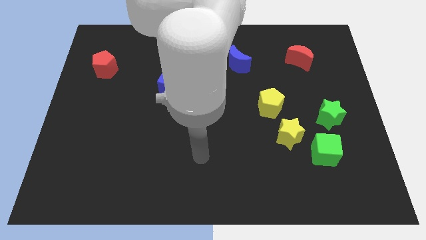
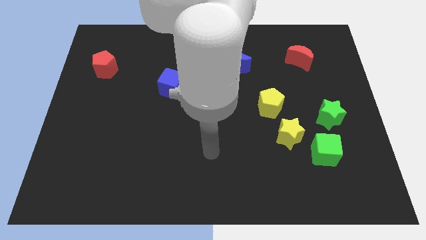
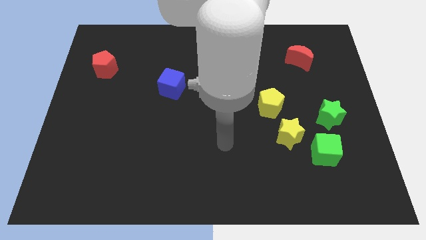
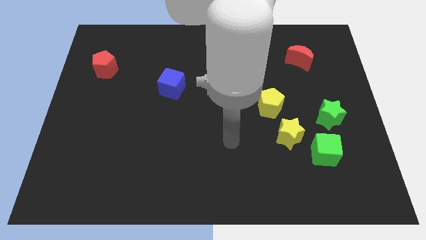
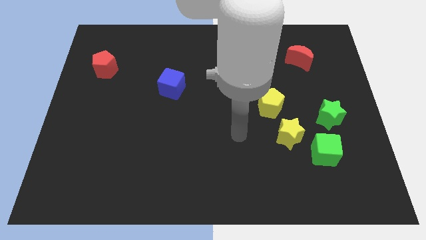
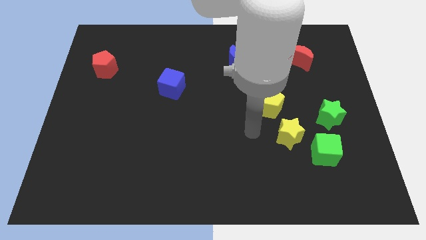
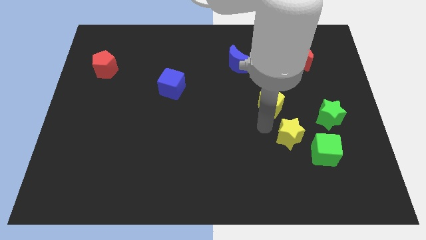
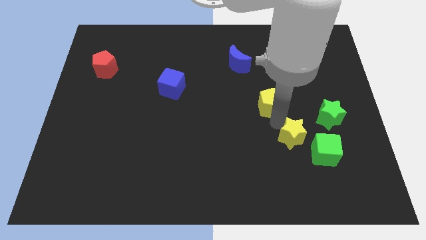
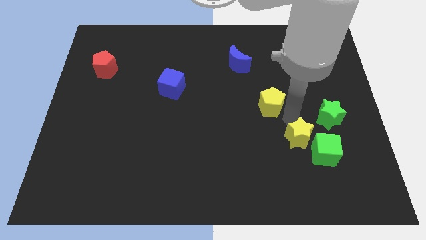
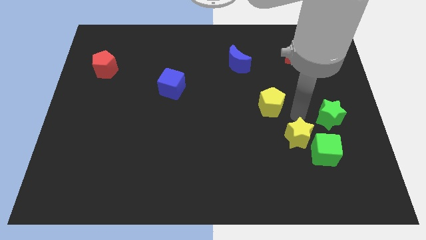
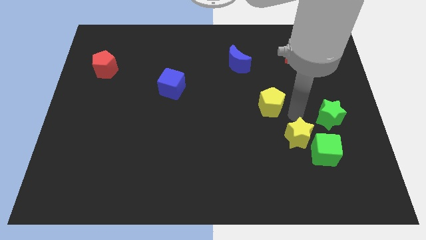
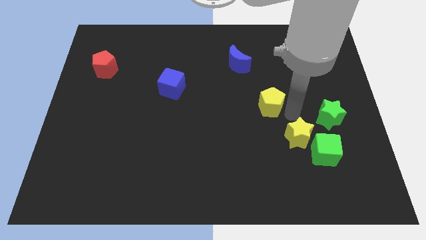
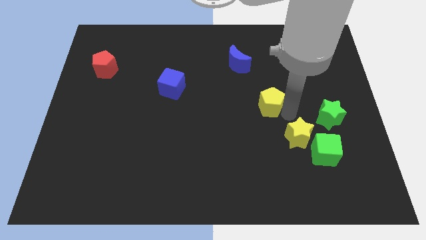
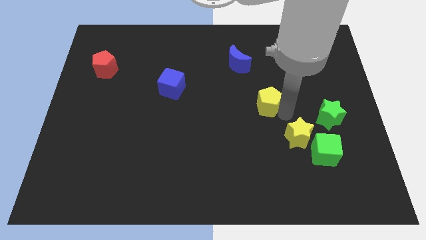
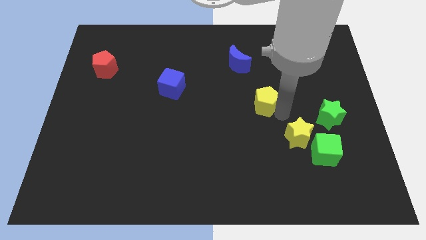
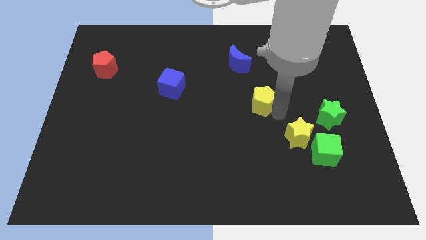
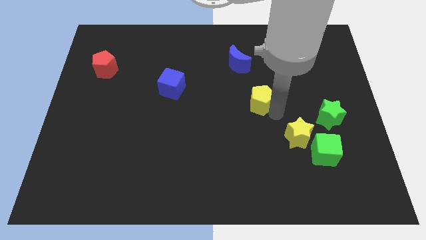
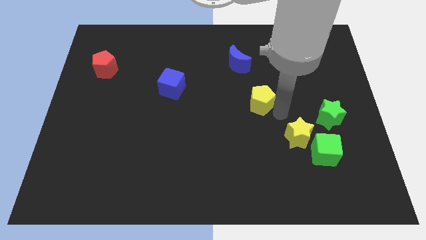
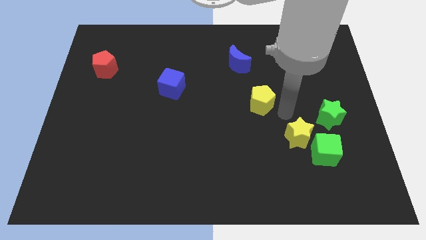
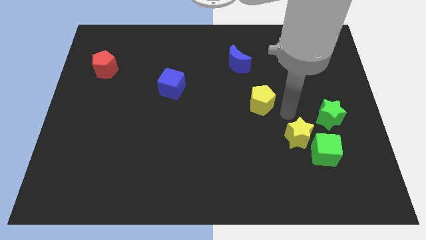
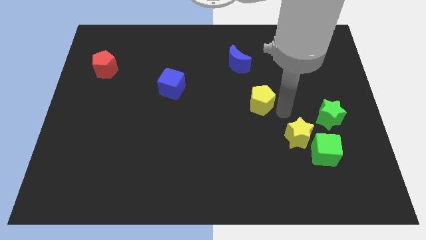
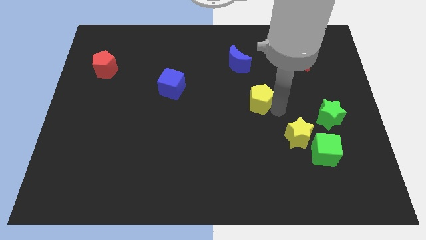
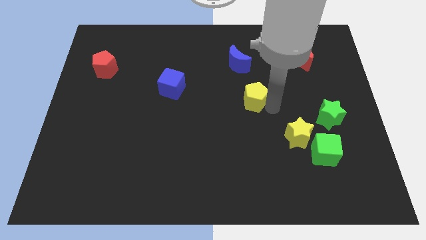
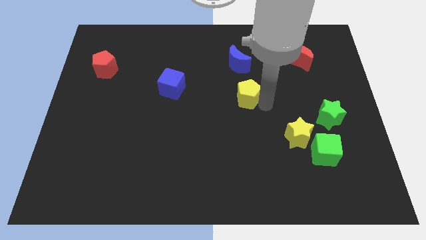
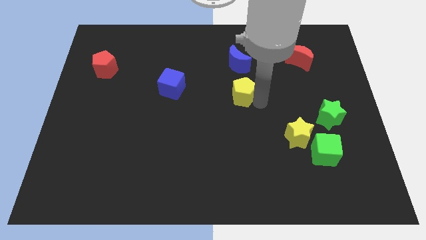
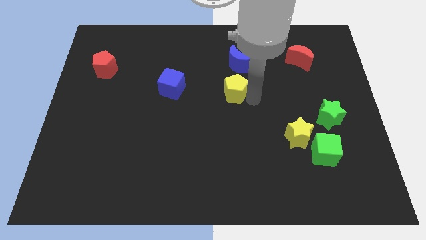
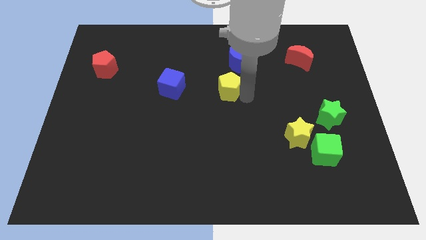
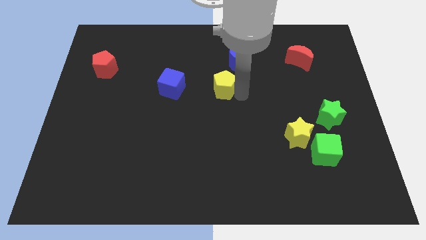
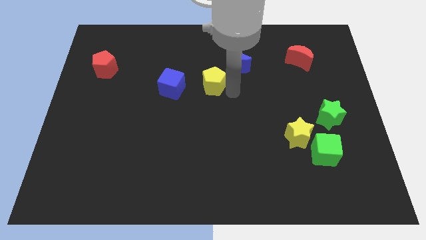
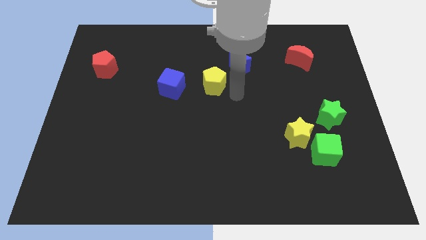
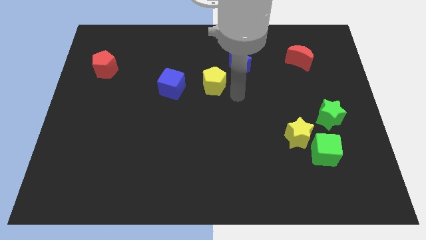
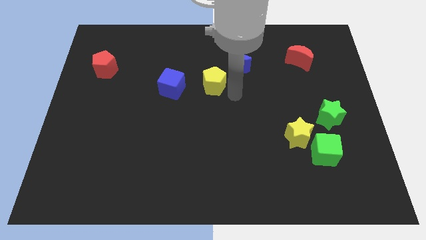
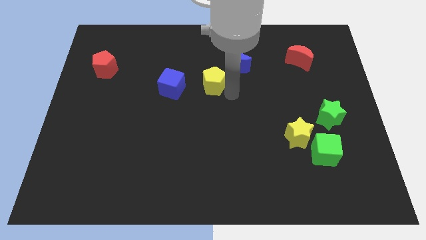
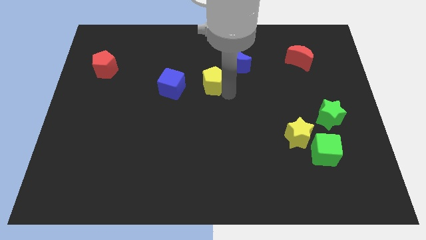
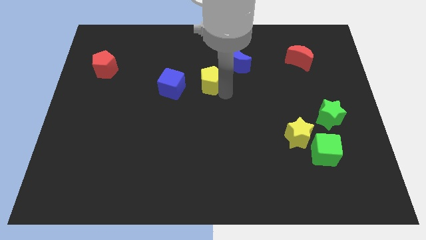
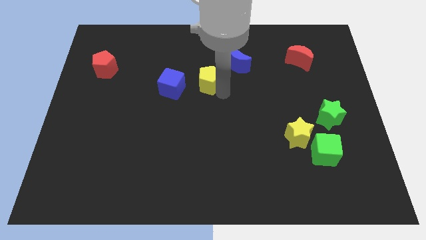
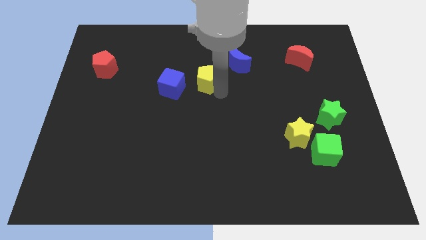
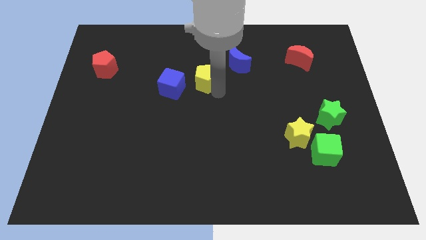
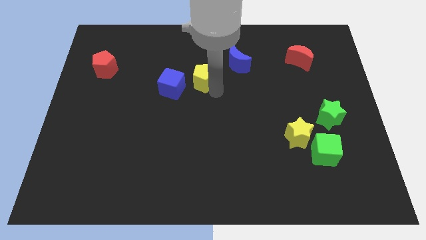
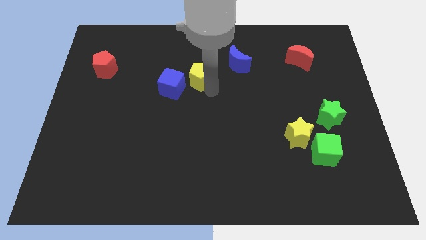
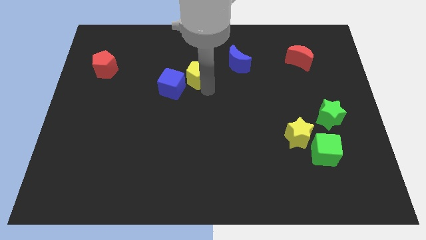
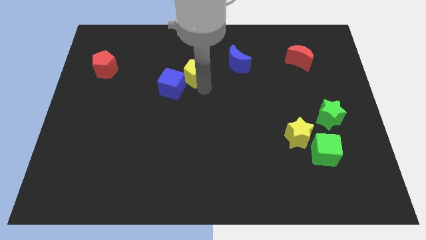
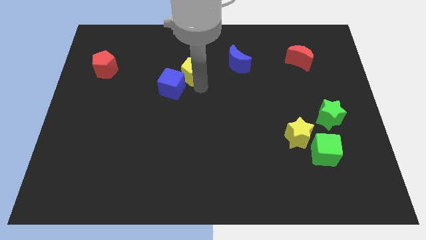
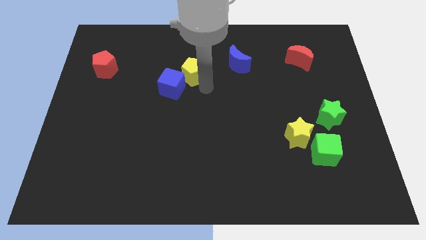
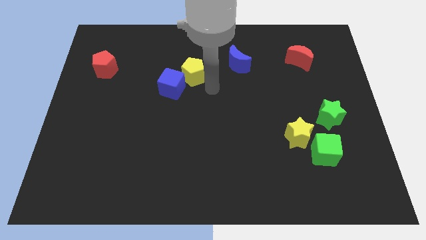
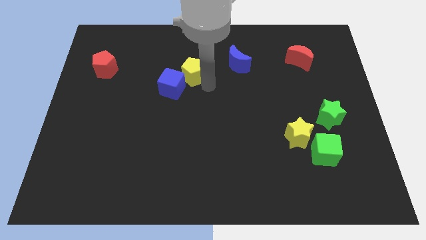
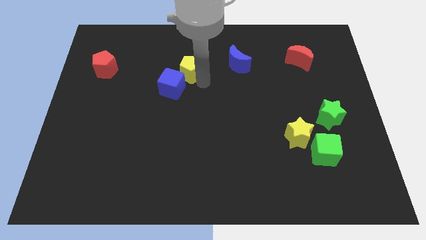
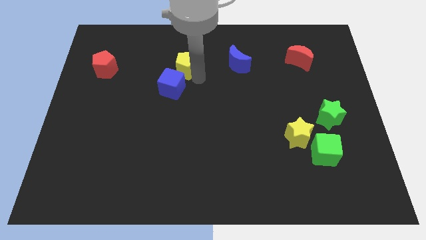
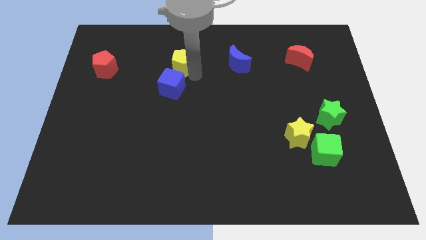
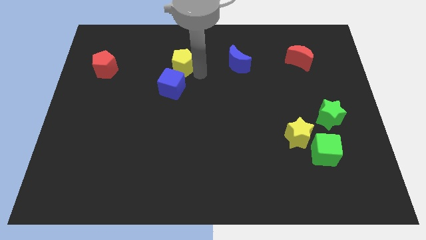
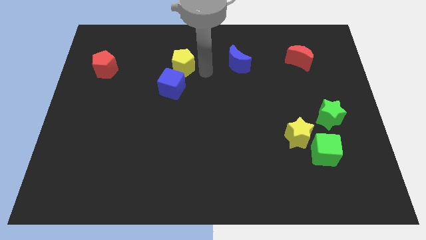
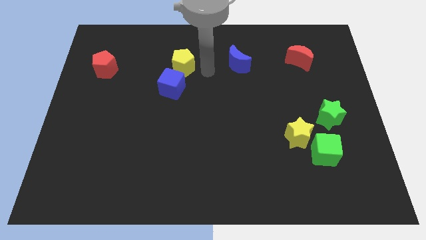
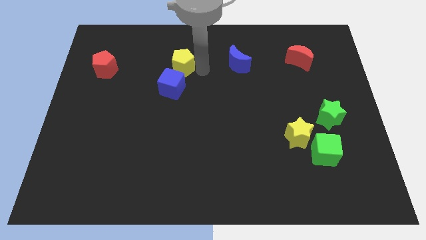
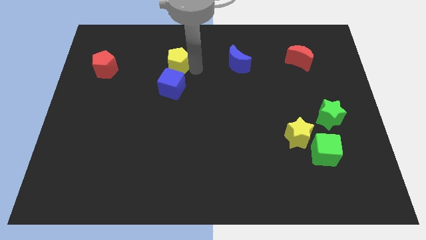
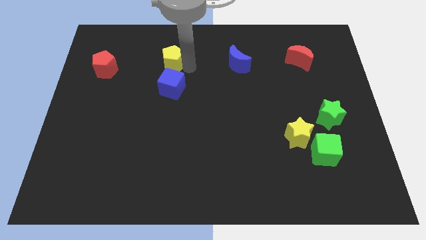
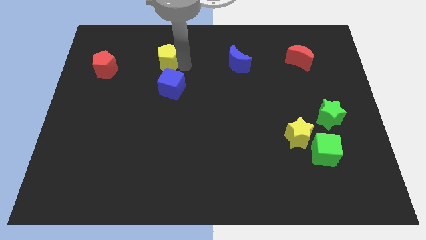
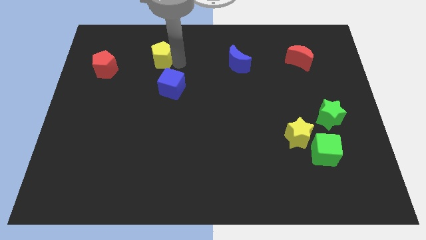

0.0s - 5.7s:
push the yellow pentagon just right of the red pentagon

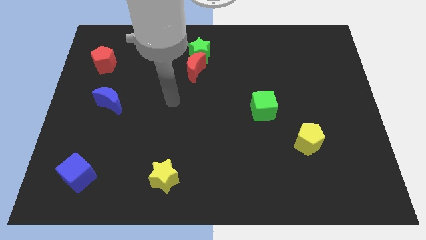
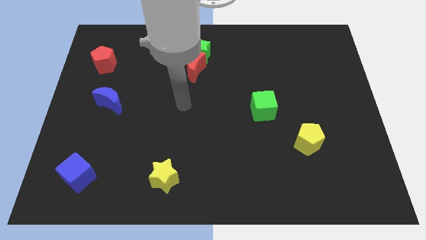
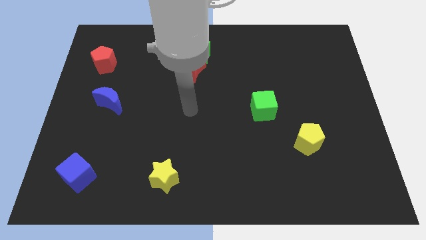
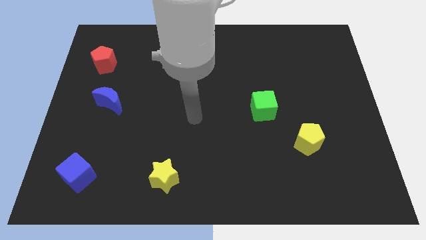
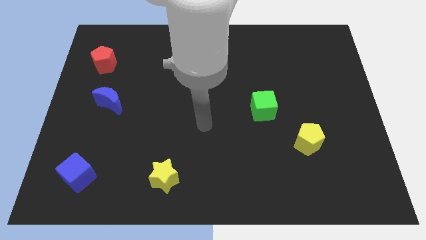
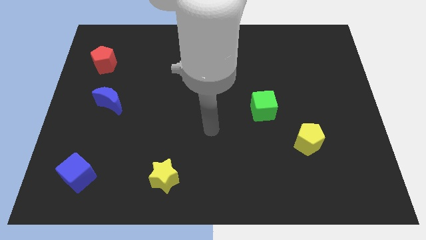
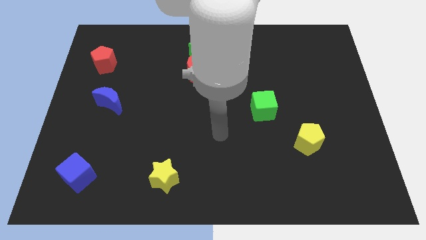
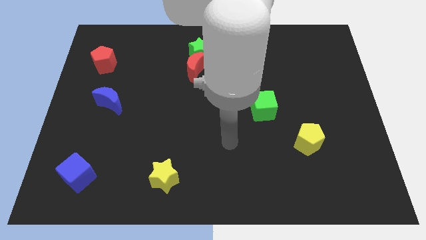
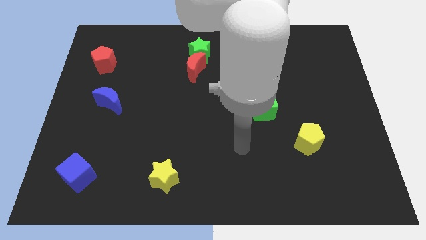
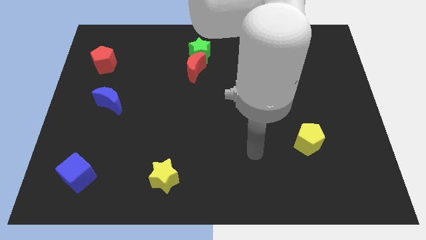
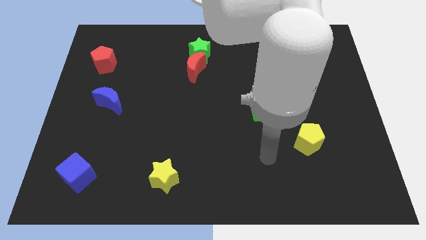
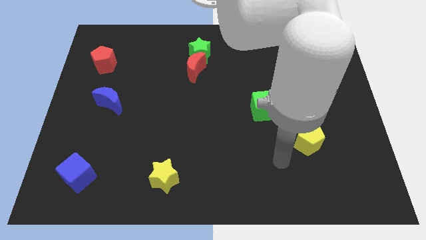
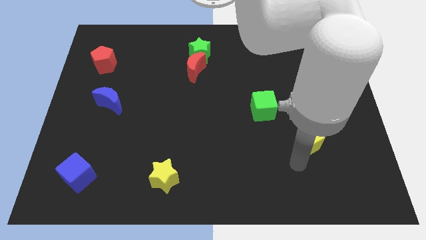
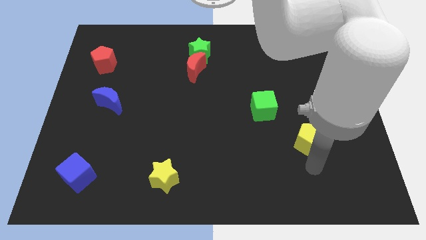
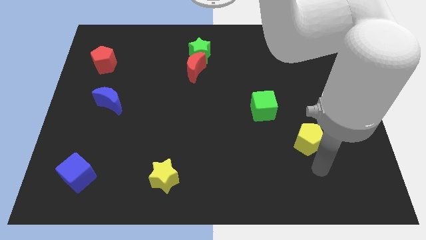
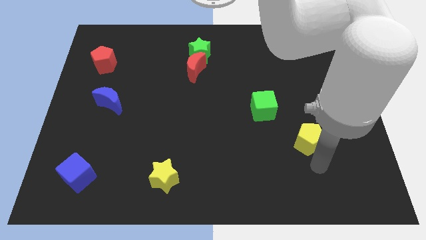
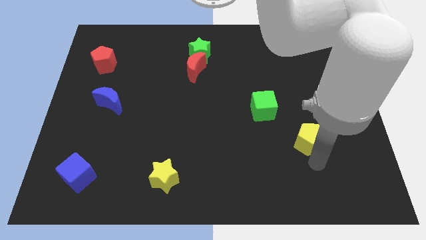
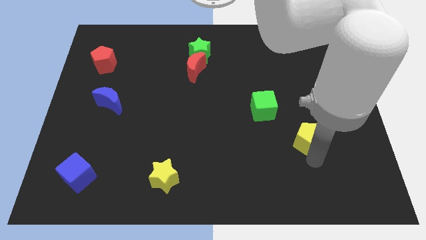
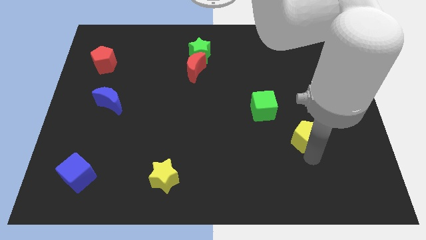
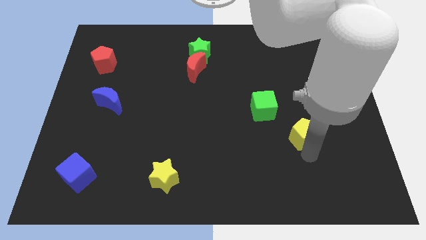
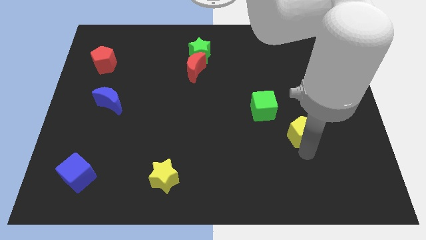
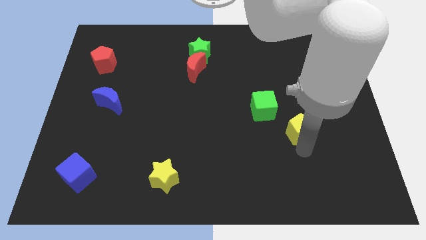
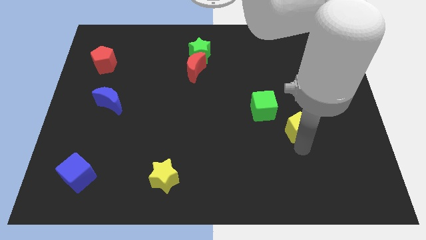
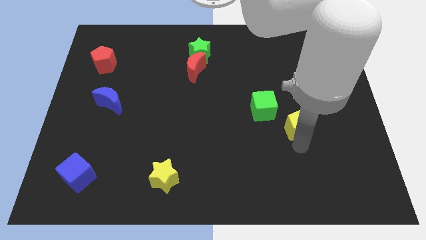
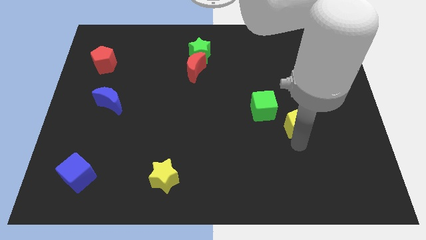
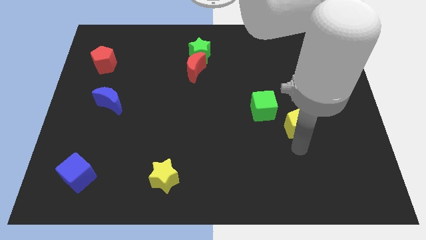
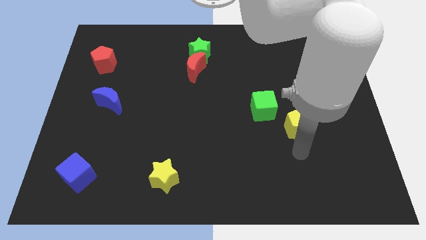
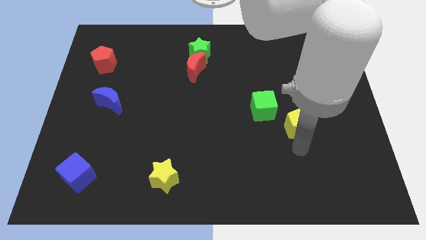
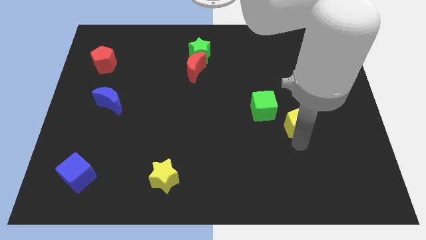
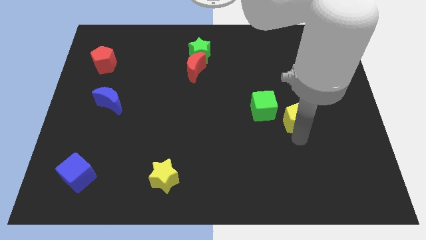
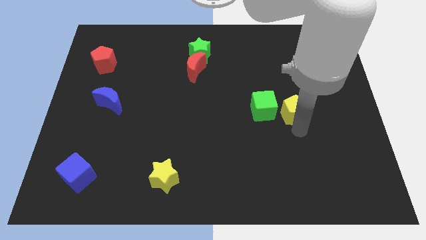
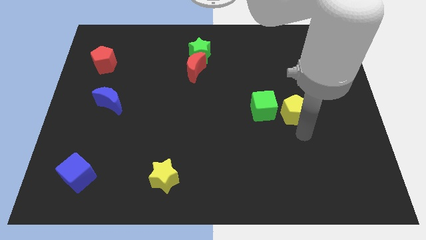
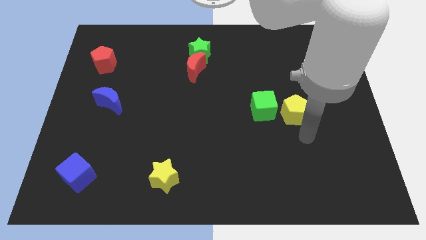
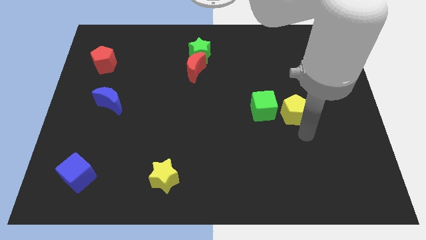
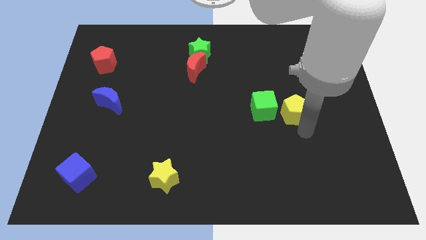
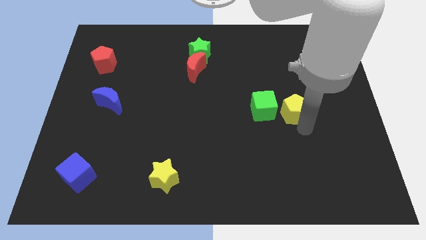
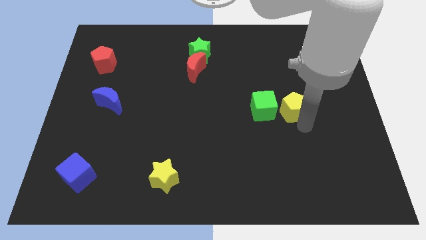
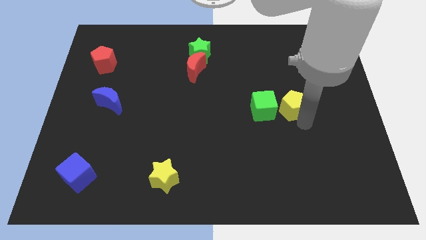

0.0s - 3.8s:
push the yellow pentagon to the top right side of the green cube
